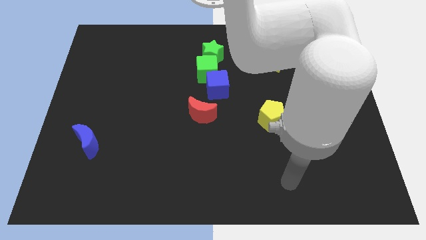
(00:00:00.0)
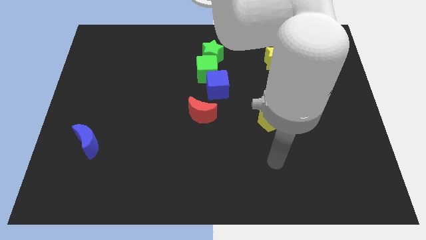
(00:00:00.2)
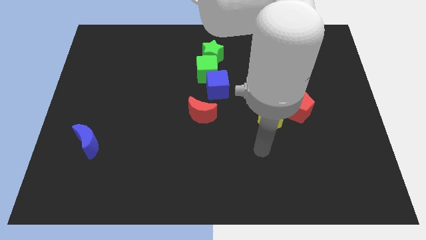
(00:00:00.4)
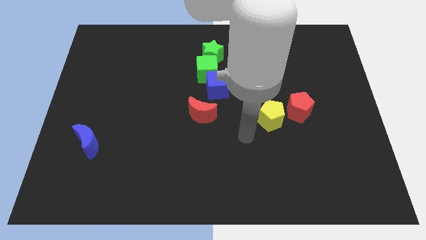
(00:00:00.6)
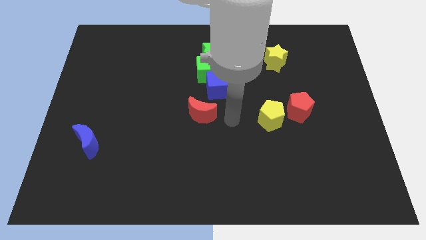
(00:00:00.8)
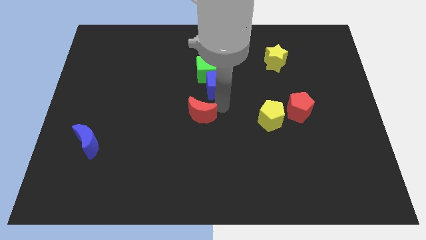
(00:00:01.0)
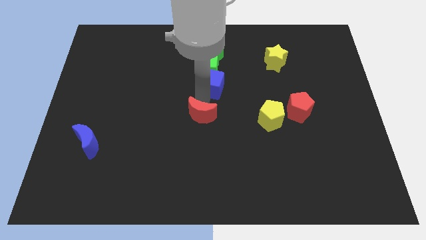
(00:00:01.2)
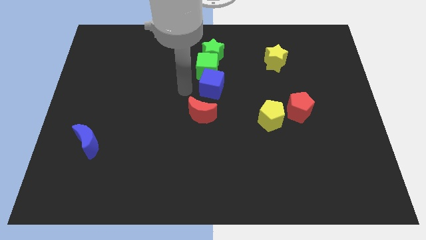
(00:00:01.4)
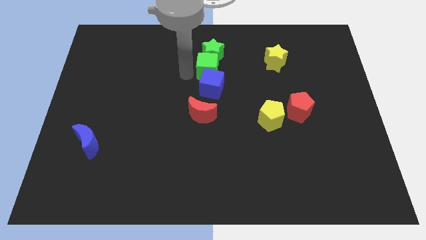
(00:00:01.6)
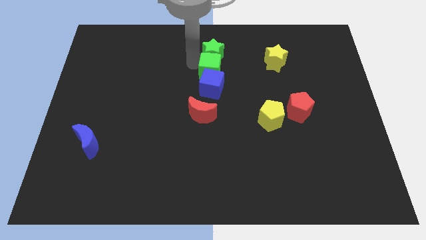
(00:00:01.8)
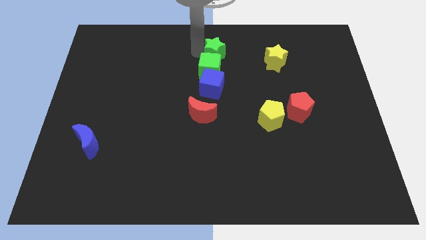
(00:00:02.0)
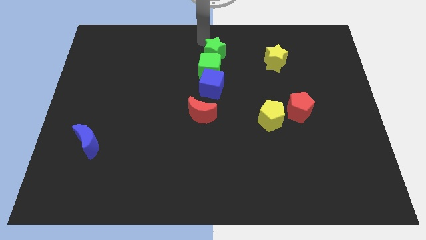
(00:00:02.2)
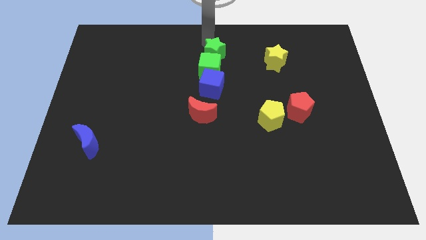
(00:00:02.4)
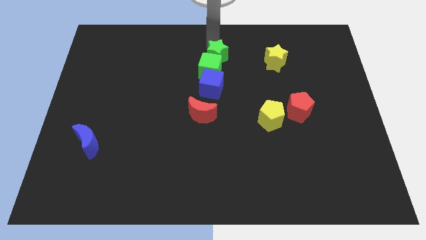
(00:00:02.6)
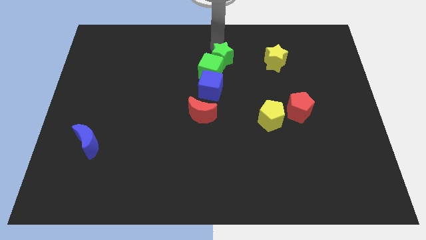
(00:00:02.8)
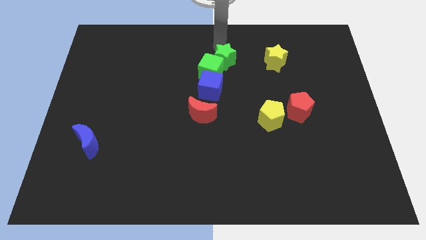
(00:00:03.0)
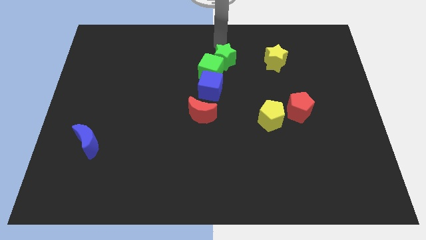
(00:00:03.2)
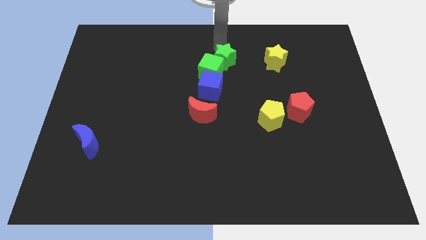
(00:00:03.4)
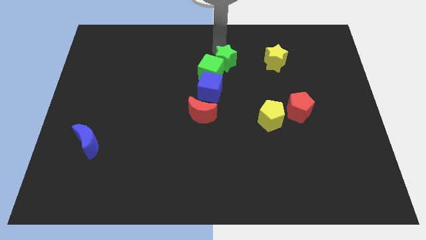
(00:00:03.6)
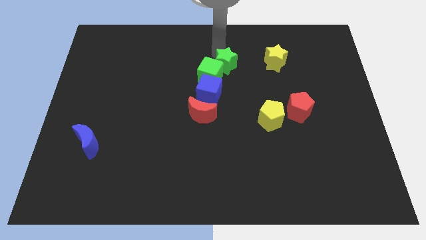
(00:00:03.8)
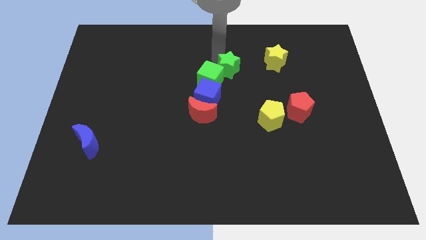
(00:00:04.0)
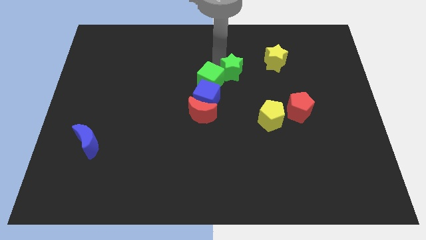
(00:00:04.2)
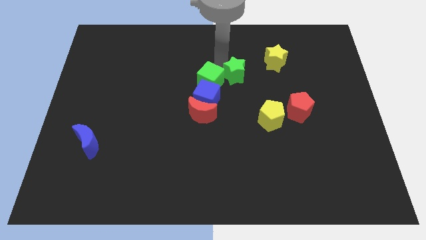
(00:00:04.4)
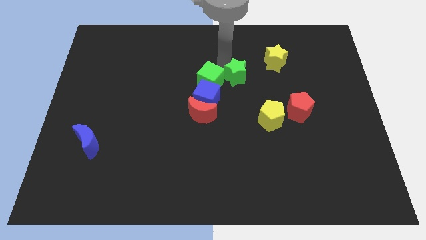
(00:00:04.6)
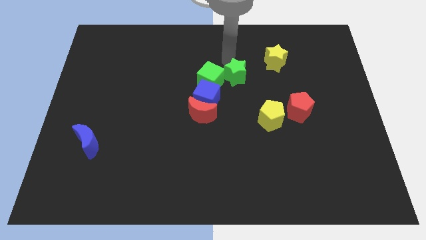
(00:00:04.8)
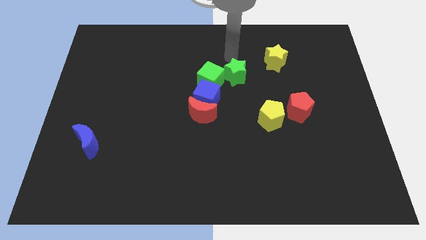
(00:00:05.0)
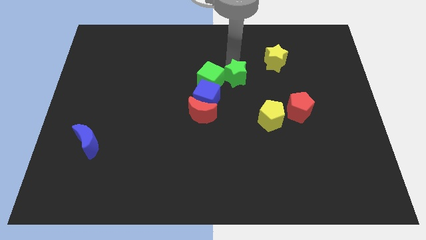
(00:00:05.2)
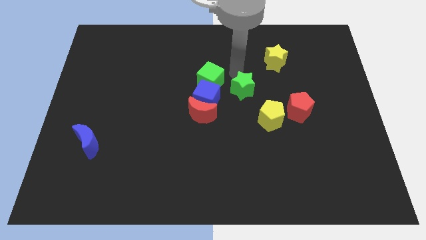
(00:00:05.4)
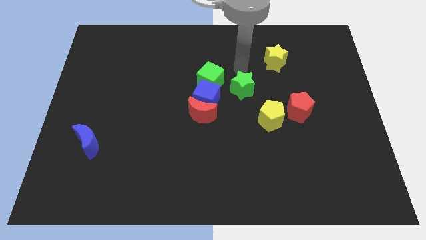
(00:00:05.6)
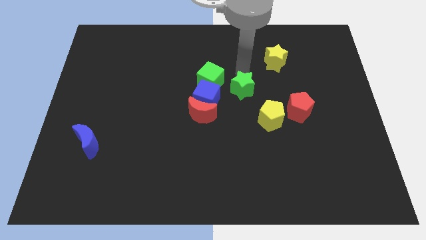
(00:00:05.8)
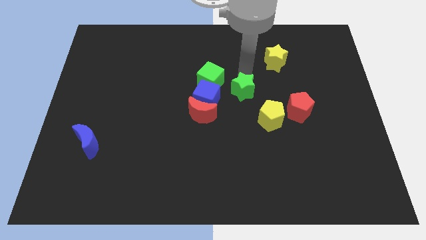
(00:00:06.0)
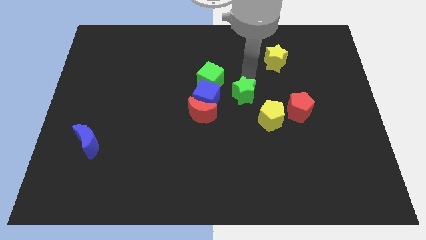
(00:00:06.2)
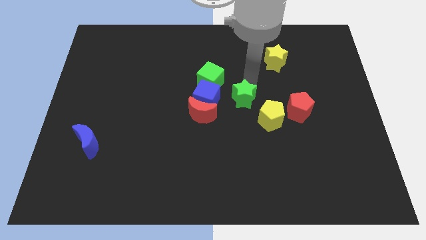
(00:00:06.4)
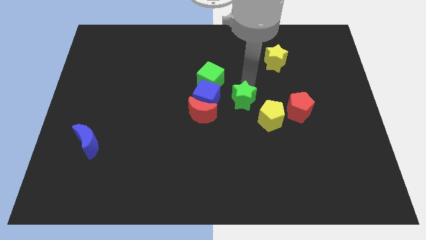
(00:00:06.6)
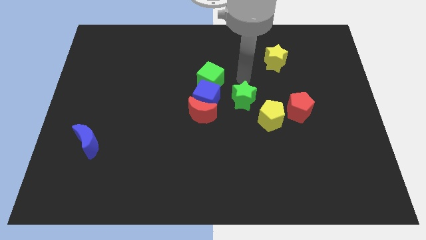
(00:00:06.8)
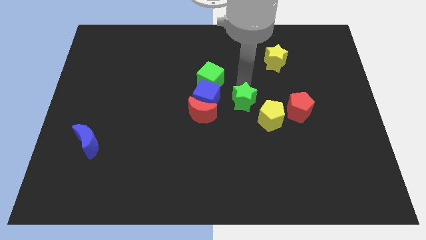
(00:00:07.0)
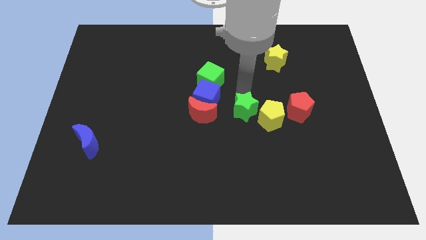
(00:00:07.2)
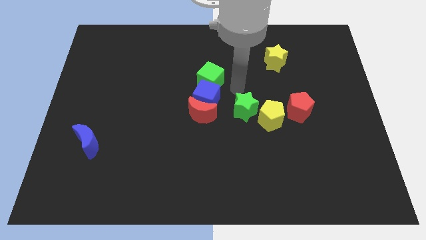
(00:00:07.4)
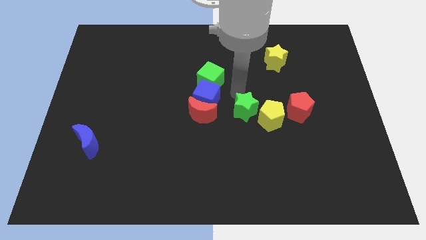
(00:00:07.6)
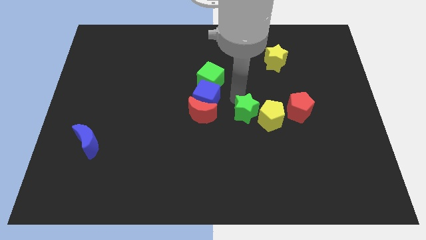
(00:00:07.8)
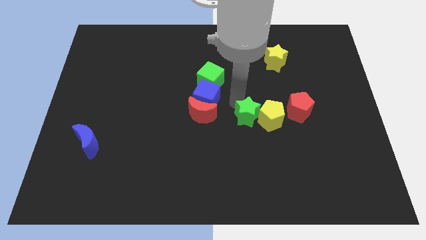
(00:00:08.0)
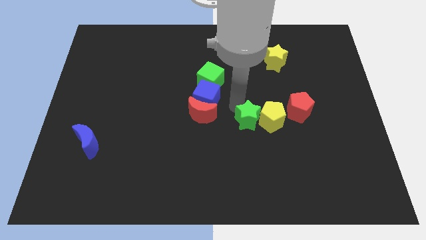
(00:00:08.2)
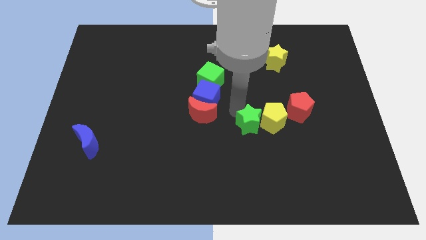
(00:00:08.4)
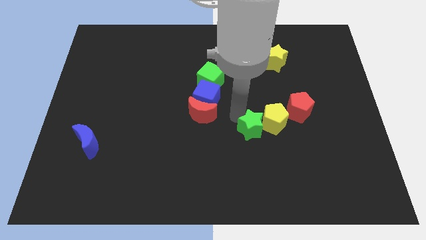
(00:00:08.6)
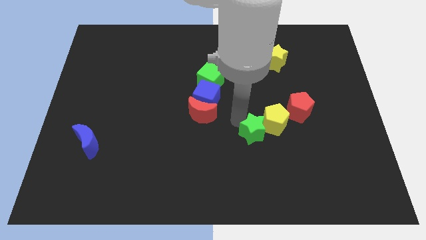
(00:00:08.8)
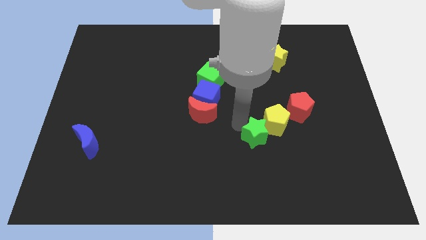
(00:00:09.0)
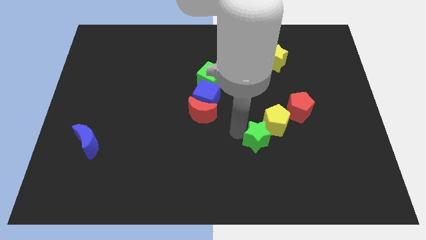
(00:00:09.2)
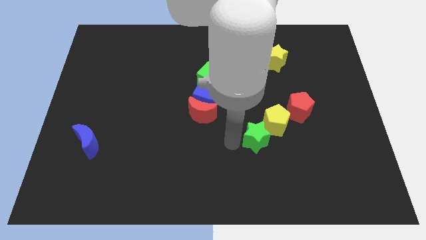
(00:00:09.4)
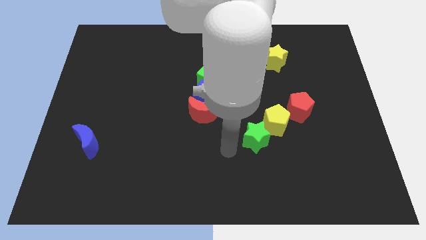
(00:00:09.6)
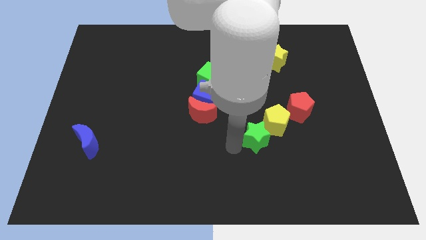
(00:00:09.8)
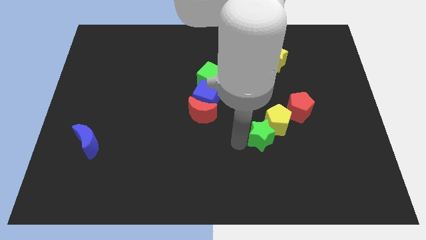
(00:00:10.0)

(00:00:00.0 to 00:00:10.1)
put the green star to the bottom left of the red pentagon

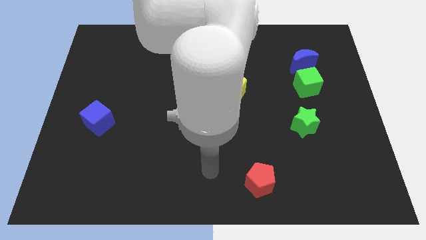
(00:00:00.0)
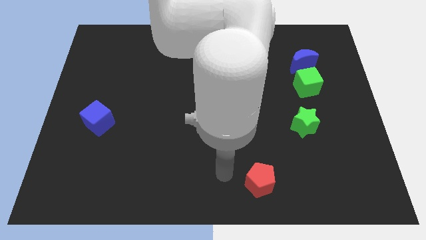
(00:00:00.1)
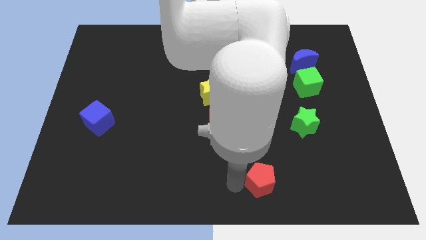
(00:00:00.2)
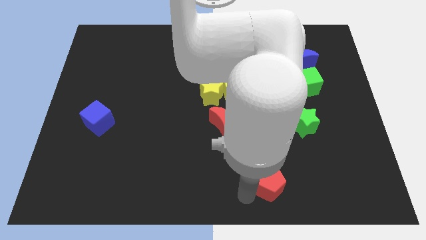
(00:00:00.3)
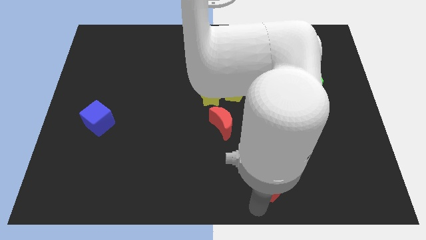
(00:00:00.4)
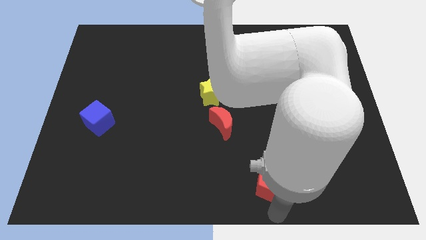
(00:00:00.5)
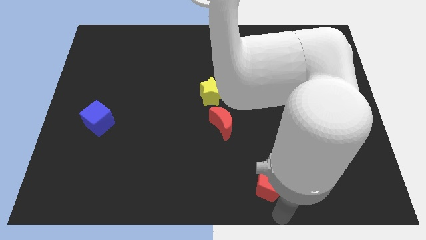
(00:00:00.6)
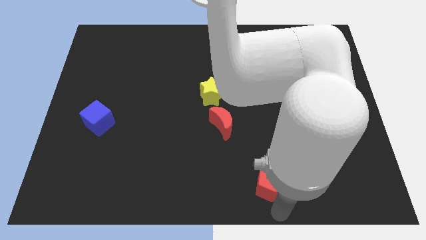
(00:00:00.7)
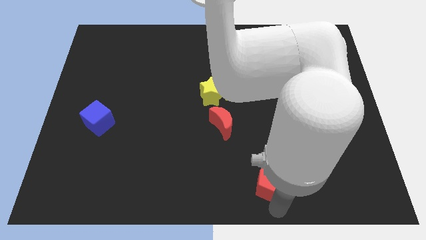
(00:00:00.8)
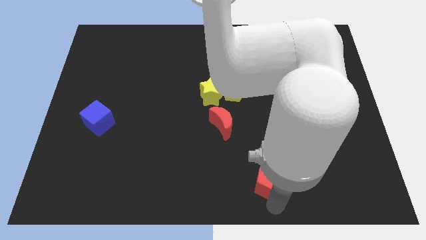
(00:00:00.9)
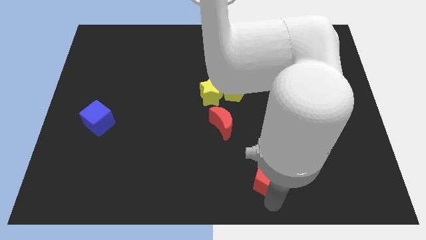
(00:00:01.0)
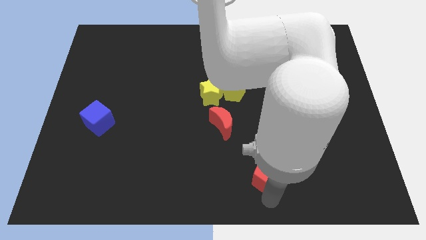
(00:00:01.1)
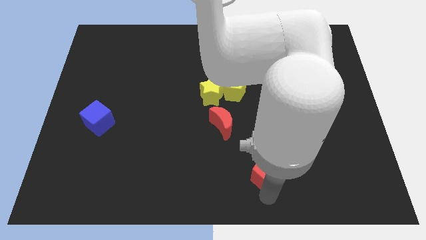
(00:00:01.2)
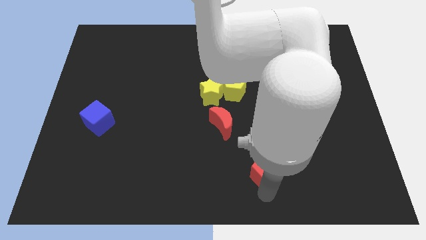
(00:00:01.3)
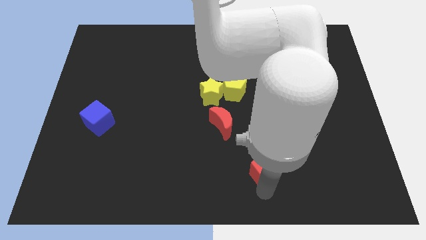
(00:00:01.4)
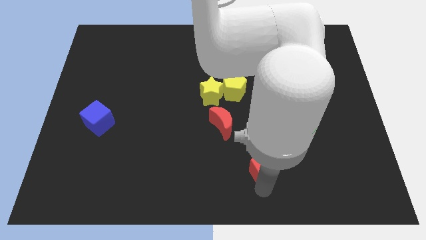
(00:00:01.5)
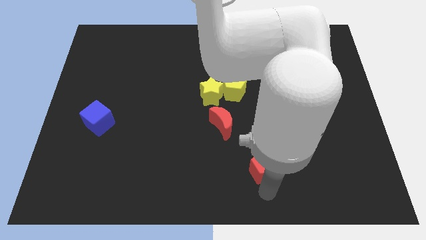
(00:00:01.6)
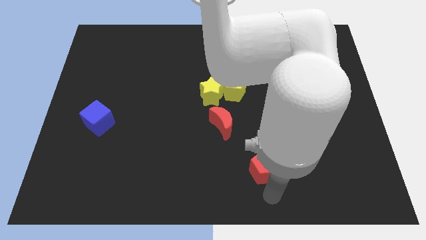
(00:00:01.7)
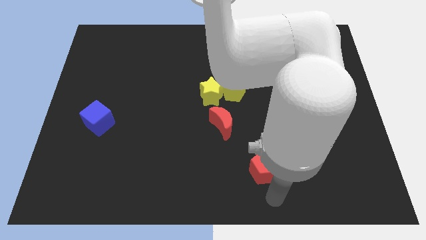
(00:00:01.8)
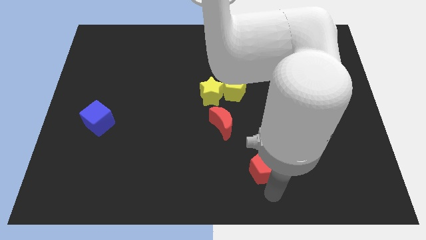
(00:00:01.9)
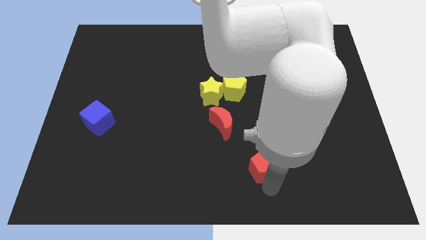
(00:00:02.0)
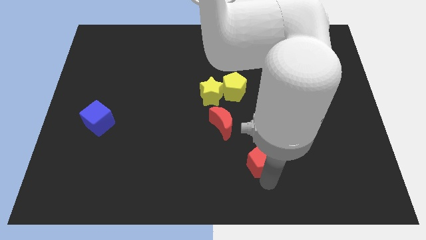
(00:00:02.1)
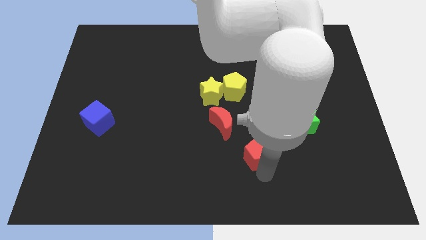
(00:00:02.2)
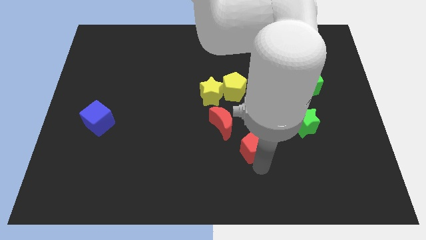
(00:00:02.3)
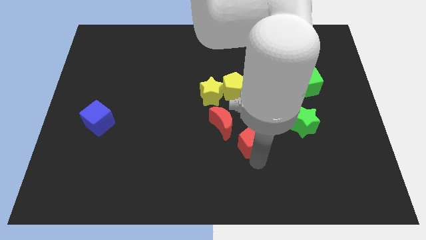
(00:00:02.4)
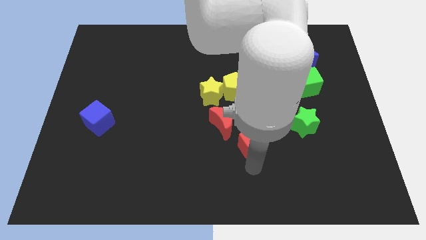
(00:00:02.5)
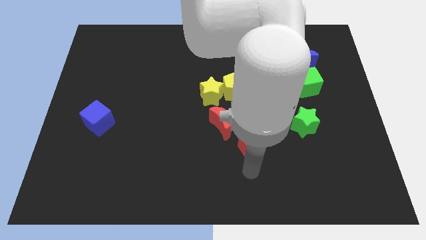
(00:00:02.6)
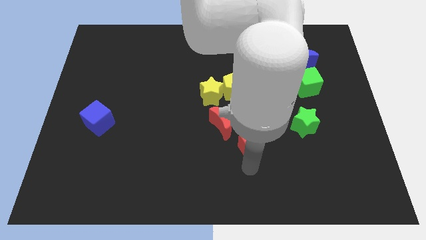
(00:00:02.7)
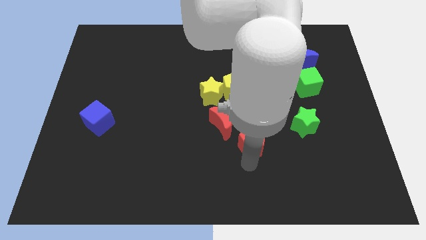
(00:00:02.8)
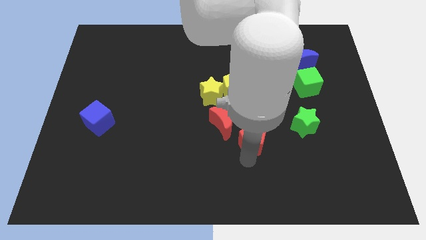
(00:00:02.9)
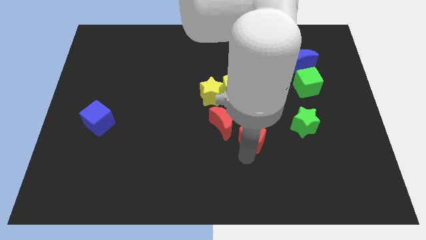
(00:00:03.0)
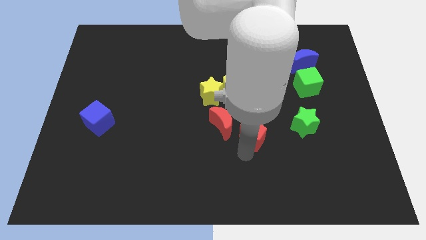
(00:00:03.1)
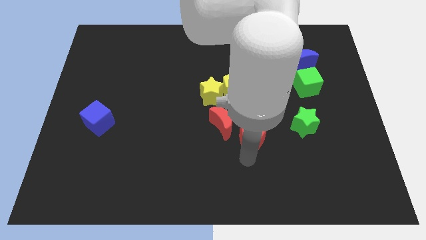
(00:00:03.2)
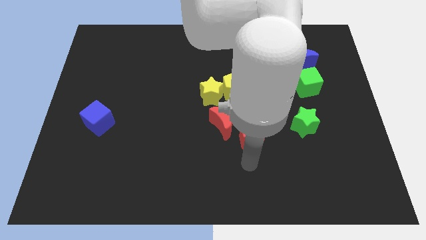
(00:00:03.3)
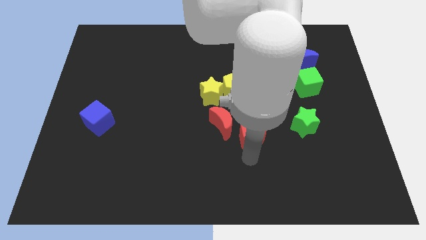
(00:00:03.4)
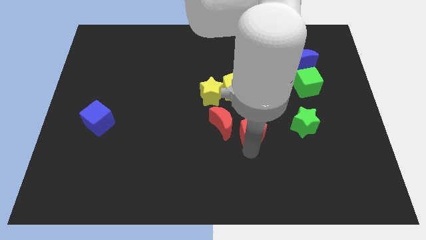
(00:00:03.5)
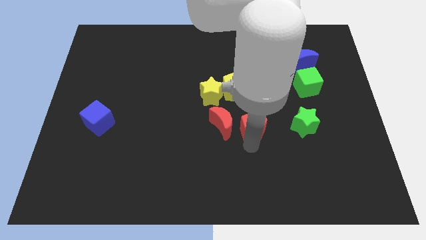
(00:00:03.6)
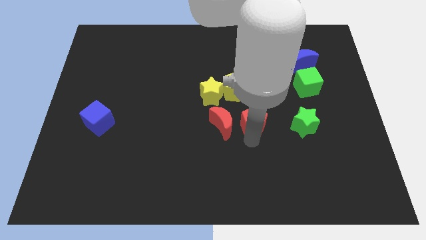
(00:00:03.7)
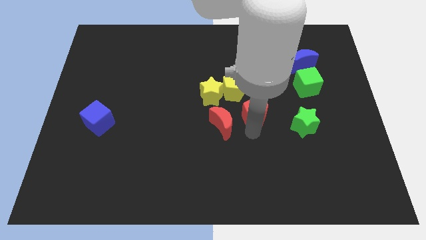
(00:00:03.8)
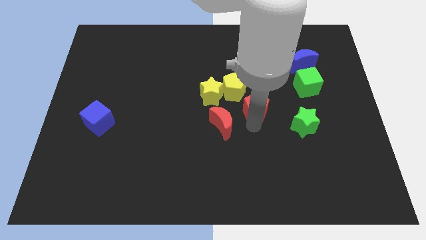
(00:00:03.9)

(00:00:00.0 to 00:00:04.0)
push the red pentagon to the right of the yellow star
